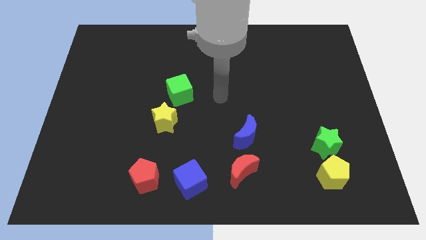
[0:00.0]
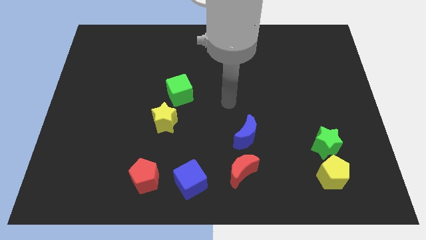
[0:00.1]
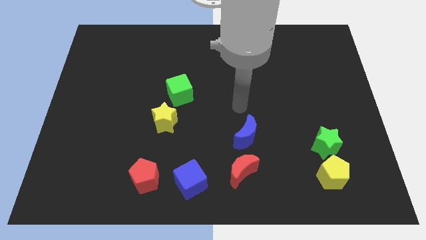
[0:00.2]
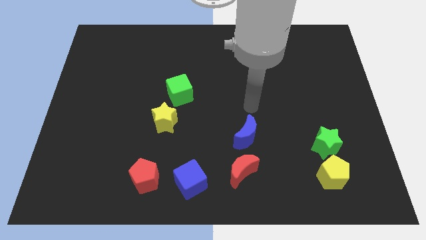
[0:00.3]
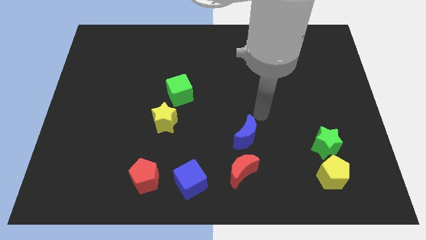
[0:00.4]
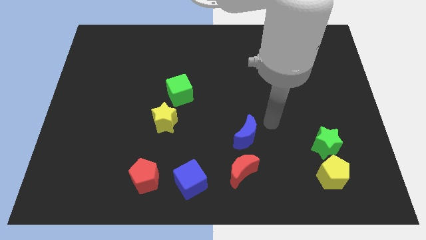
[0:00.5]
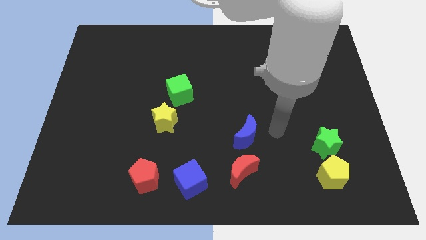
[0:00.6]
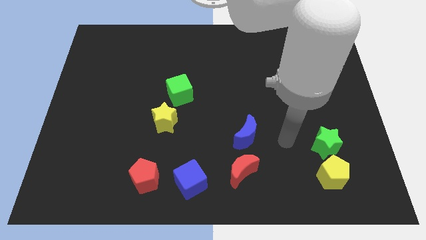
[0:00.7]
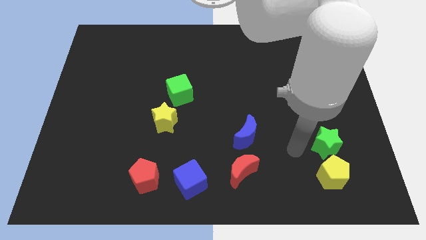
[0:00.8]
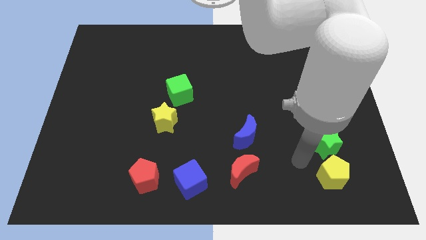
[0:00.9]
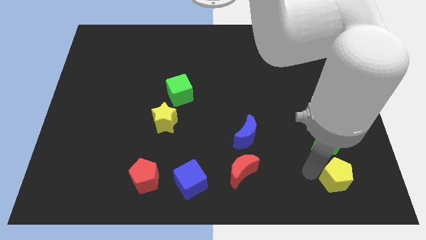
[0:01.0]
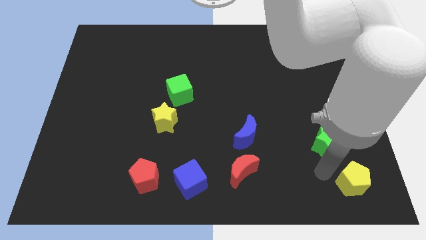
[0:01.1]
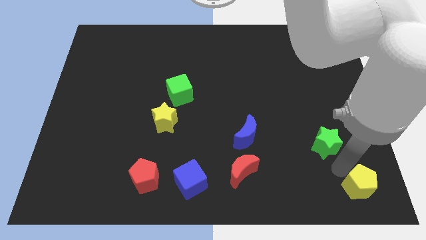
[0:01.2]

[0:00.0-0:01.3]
move the green star away from the yellow pentagon

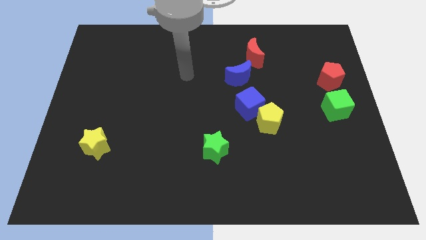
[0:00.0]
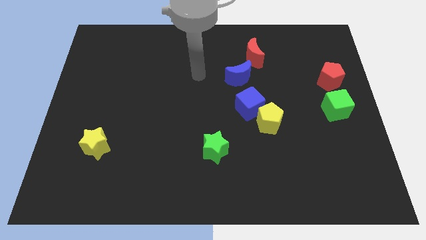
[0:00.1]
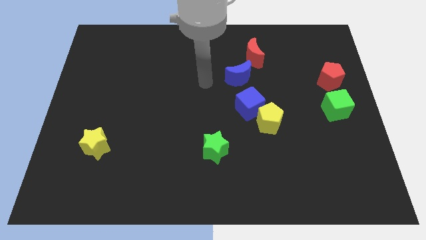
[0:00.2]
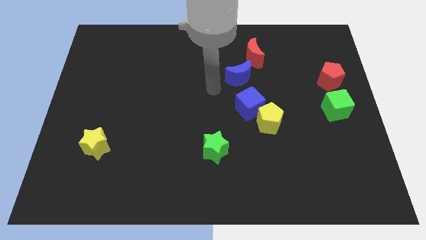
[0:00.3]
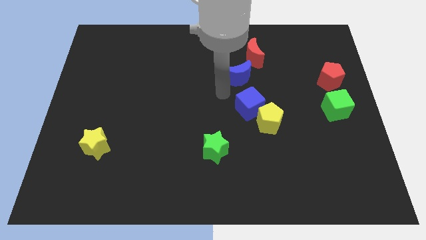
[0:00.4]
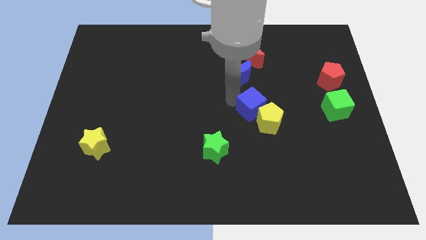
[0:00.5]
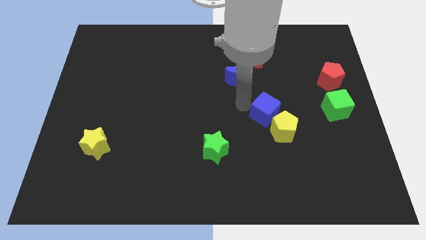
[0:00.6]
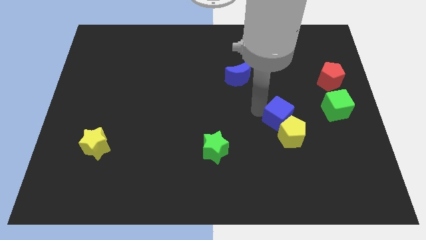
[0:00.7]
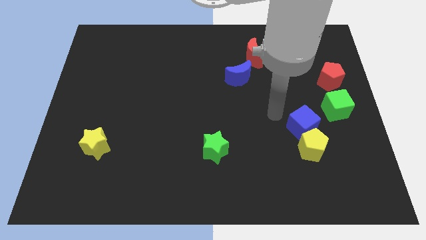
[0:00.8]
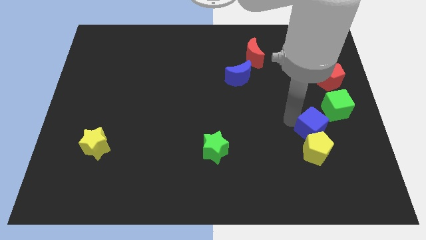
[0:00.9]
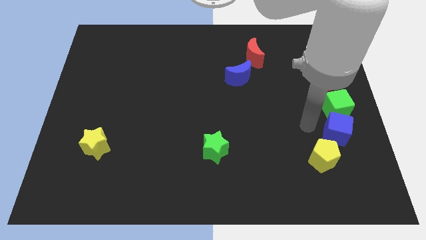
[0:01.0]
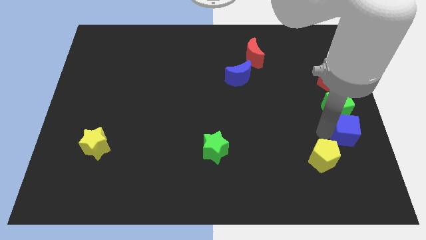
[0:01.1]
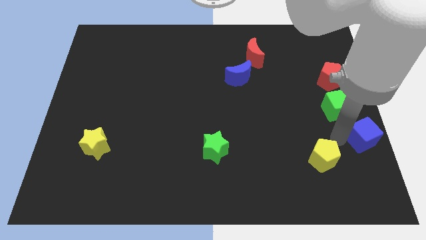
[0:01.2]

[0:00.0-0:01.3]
pull the yellow pentagon apart from the blue cube

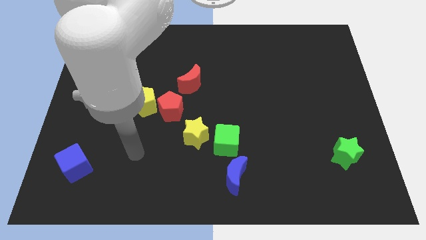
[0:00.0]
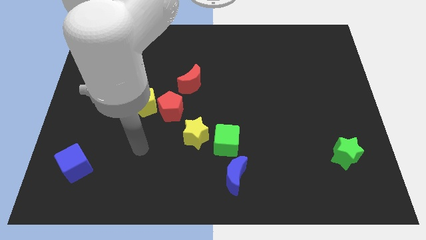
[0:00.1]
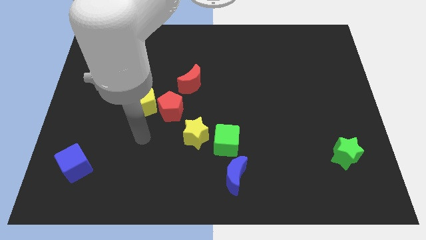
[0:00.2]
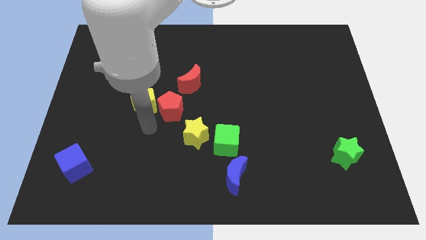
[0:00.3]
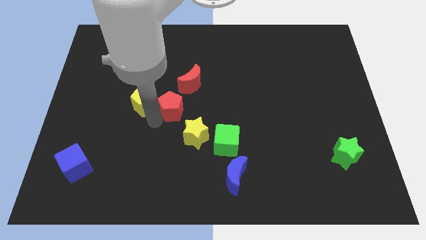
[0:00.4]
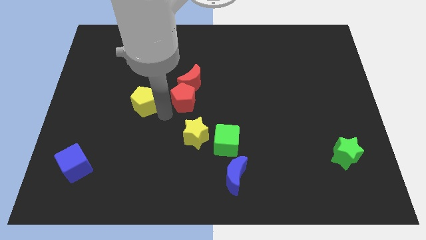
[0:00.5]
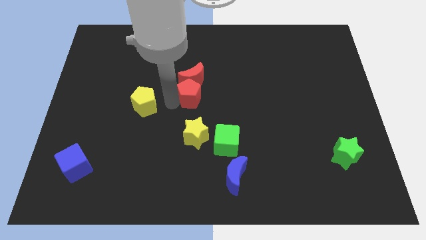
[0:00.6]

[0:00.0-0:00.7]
pull the yellow pentagon apart from the red pentagon

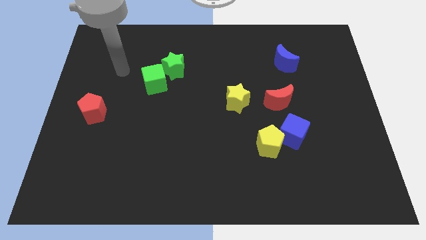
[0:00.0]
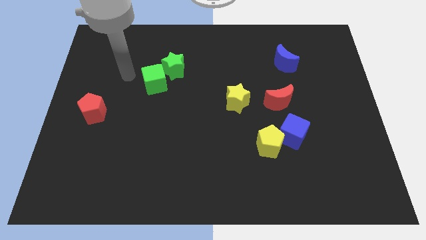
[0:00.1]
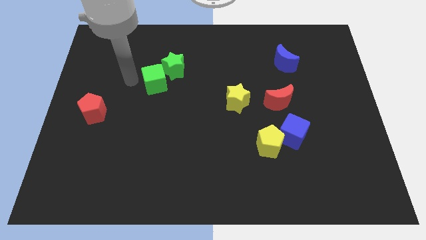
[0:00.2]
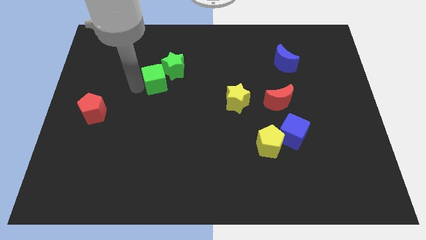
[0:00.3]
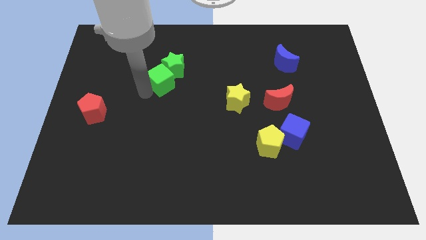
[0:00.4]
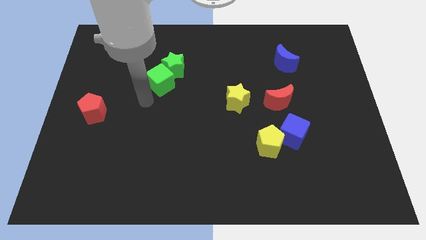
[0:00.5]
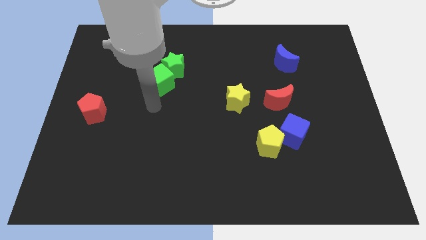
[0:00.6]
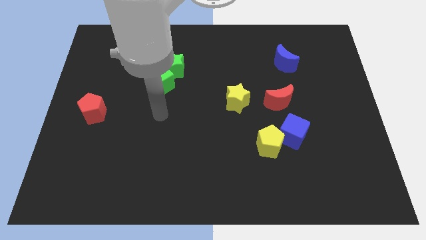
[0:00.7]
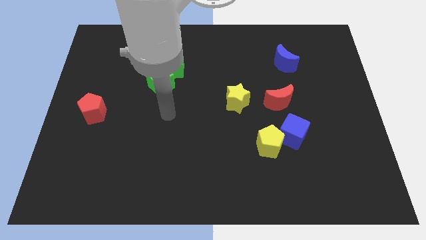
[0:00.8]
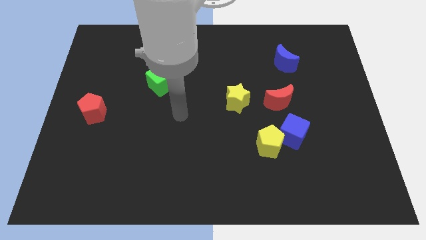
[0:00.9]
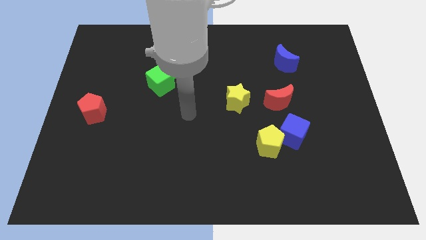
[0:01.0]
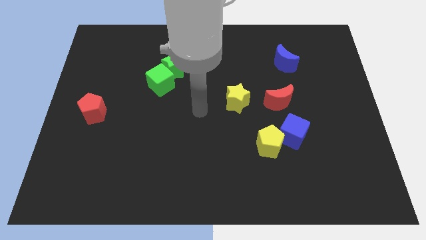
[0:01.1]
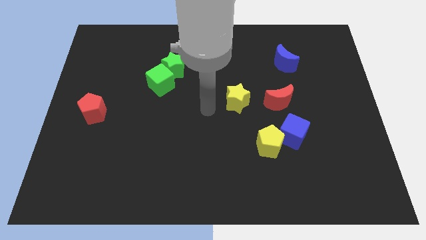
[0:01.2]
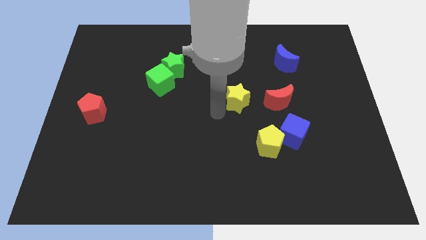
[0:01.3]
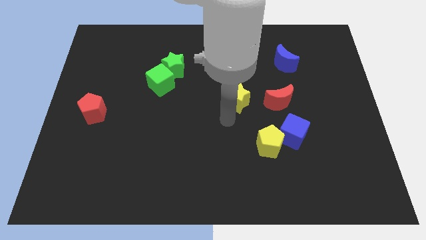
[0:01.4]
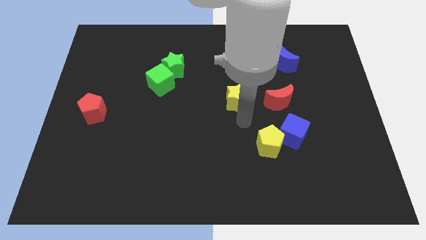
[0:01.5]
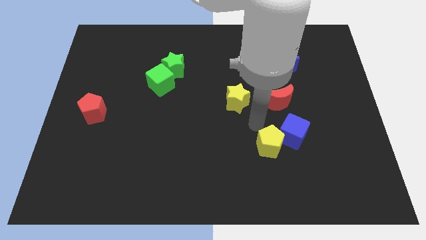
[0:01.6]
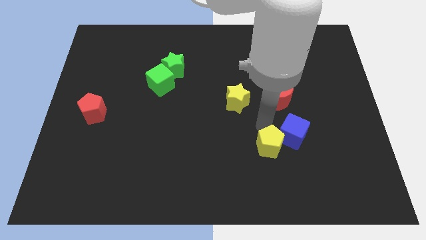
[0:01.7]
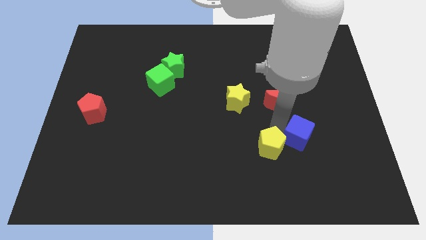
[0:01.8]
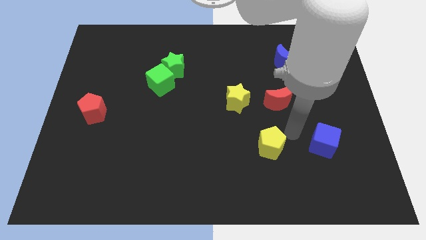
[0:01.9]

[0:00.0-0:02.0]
move the yellow pentagon away from the blue cube

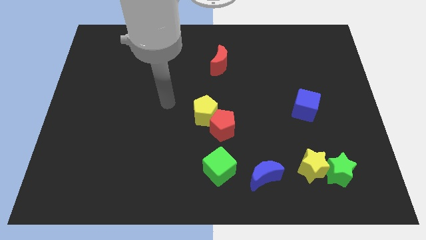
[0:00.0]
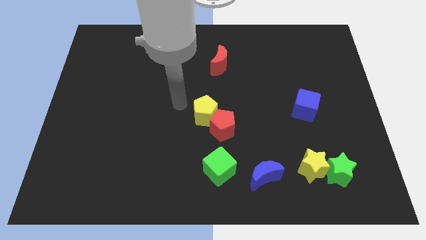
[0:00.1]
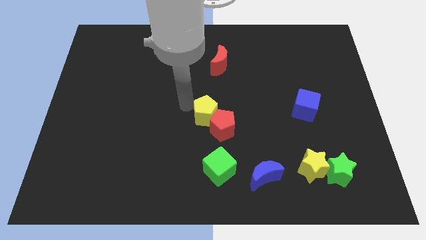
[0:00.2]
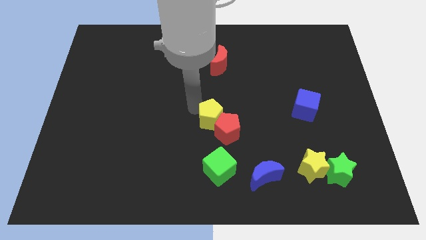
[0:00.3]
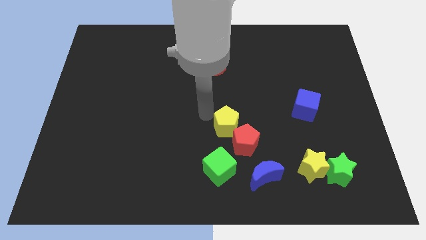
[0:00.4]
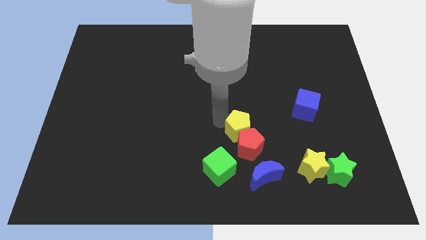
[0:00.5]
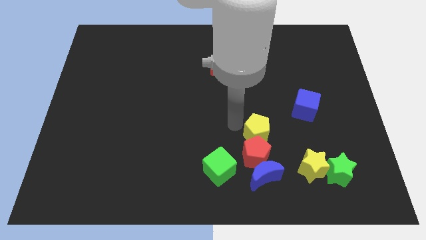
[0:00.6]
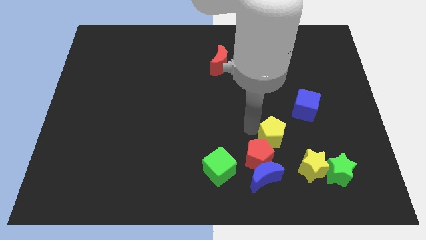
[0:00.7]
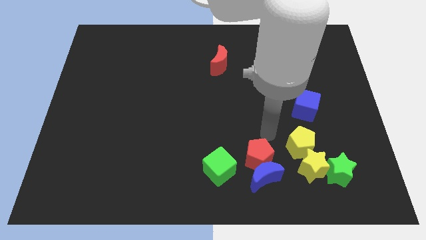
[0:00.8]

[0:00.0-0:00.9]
separate the red pentagon from the yellow pentagon

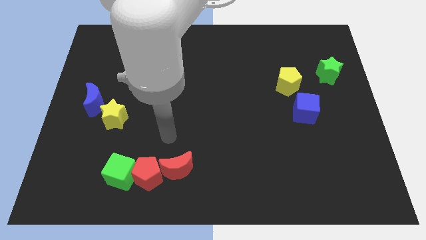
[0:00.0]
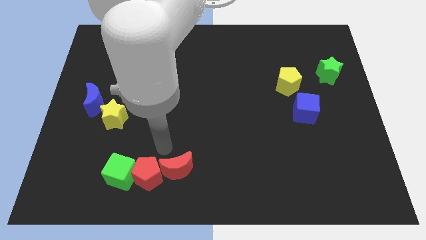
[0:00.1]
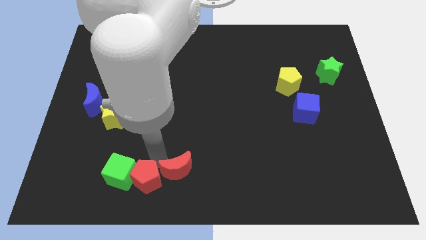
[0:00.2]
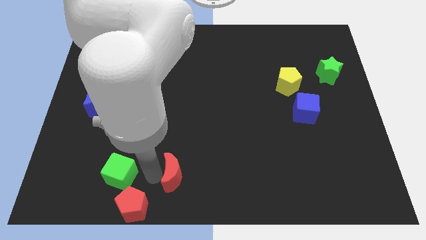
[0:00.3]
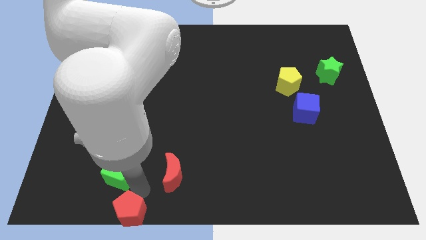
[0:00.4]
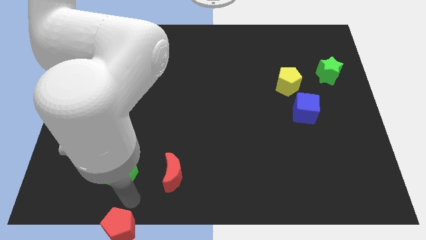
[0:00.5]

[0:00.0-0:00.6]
pull the green cube apart from the red pentagon

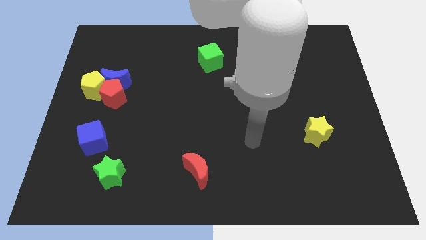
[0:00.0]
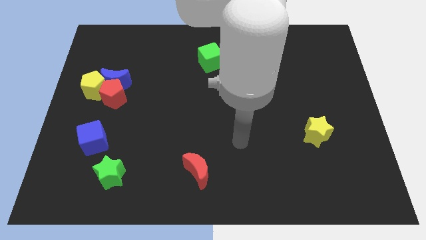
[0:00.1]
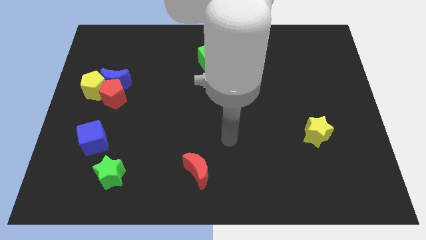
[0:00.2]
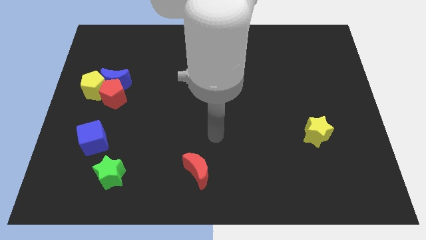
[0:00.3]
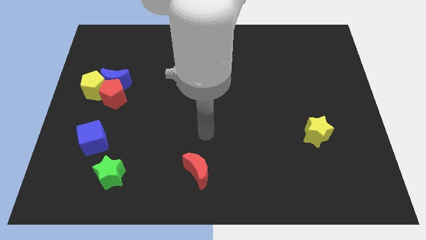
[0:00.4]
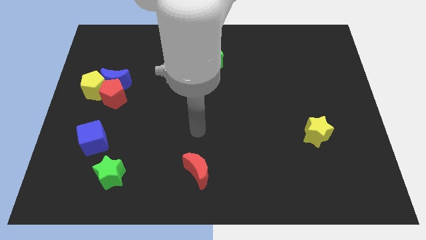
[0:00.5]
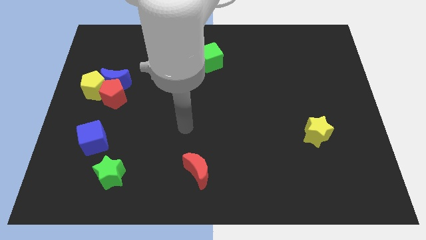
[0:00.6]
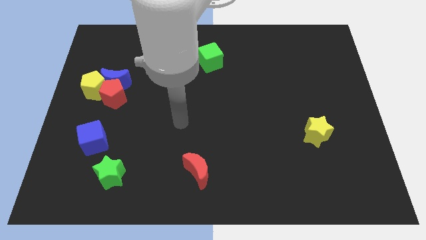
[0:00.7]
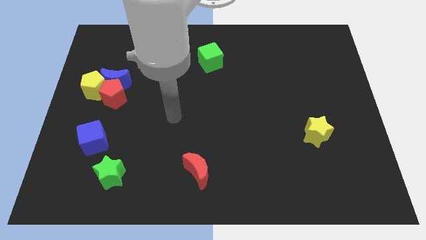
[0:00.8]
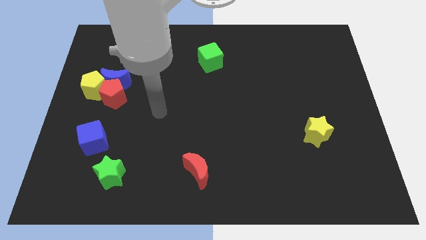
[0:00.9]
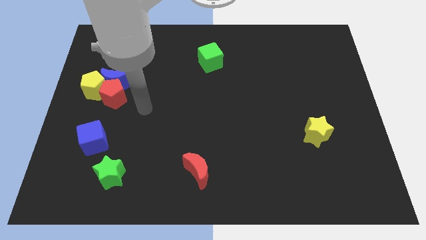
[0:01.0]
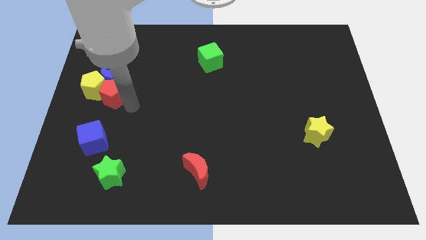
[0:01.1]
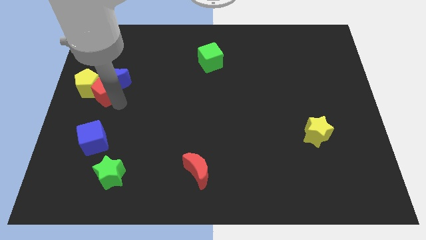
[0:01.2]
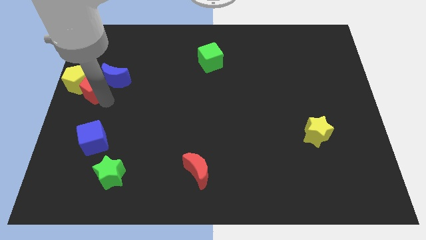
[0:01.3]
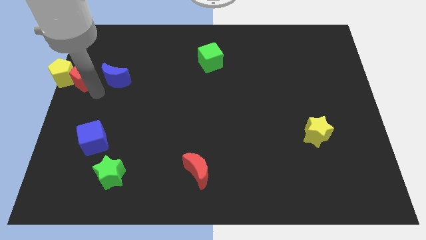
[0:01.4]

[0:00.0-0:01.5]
separate the blue moon from the red pentagon and yellow pentagon

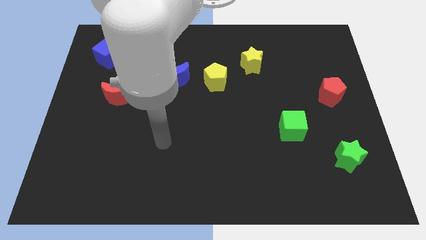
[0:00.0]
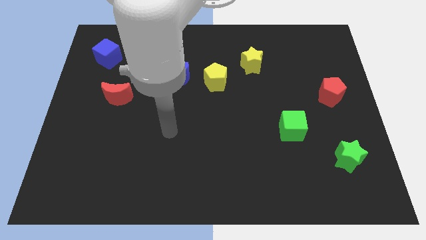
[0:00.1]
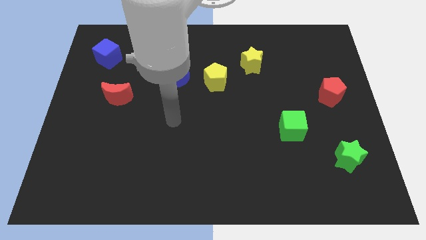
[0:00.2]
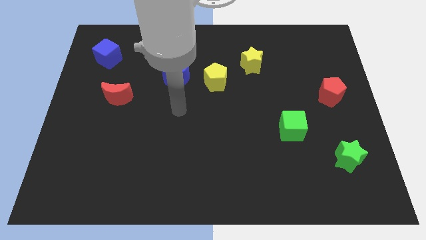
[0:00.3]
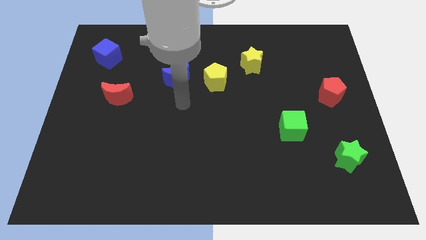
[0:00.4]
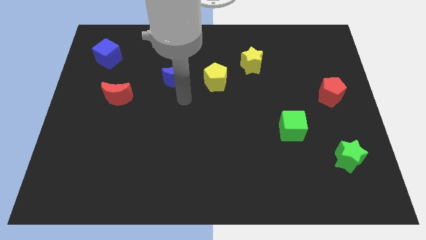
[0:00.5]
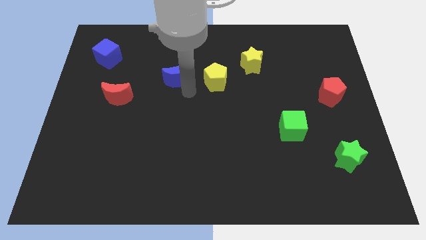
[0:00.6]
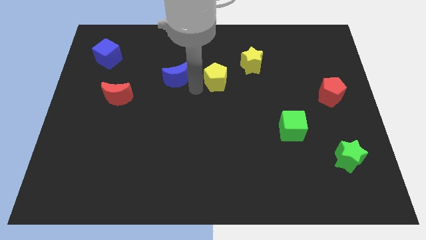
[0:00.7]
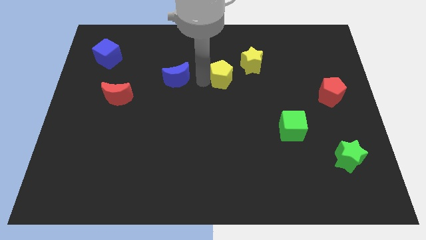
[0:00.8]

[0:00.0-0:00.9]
separate the blue moon from the yellow pentagon
